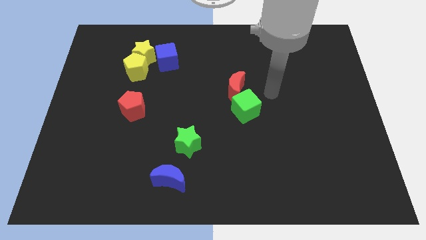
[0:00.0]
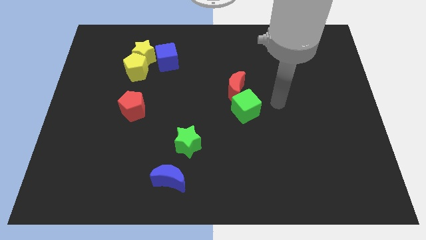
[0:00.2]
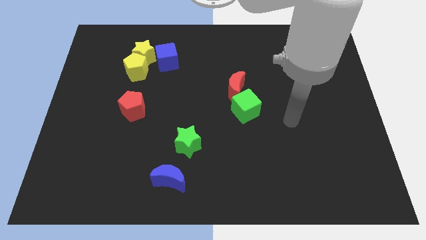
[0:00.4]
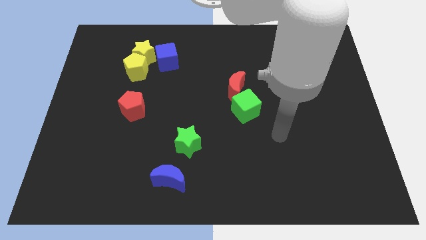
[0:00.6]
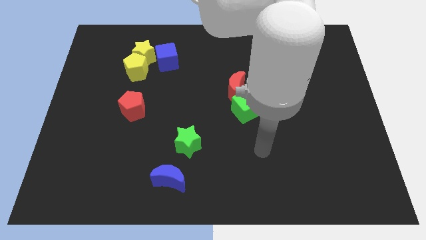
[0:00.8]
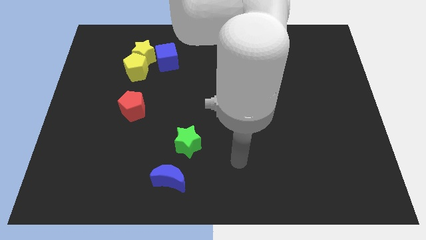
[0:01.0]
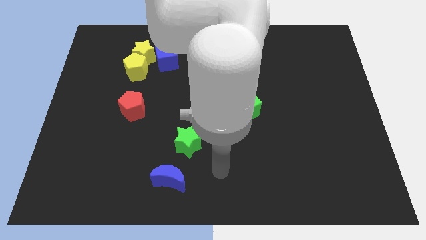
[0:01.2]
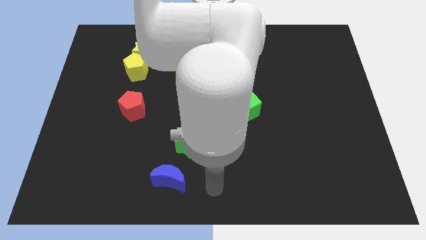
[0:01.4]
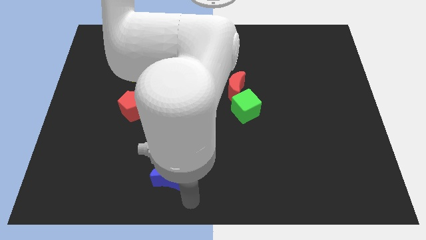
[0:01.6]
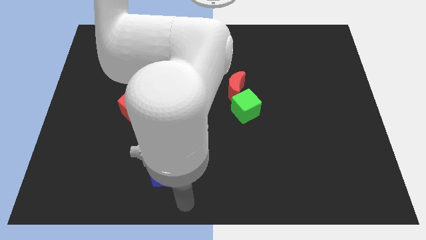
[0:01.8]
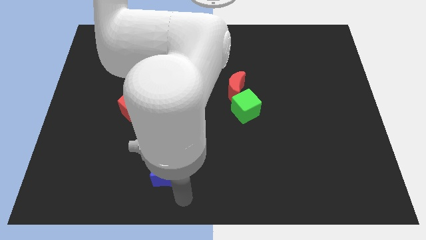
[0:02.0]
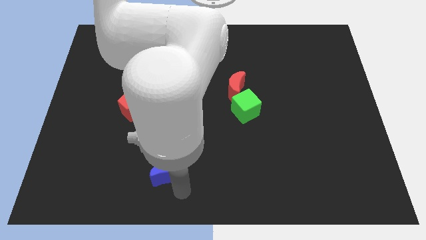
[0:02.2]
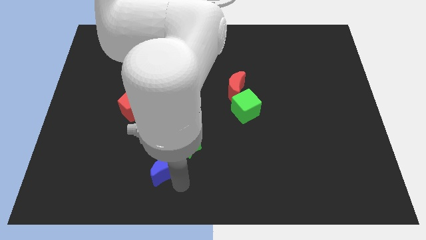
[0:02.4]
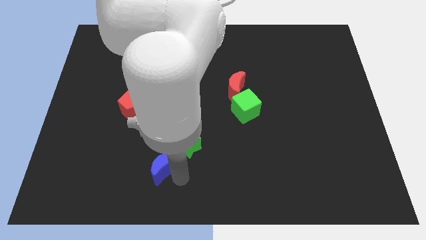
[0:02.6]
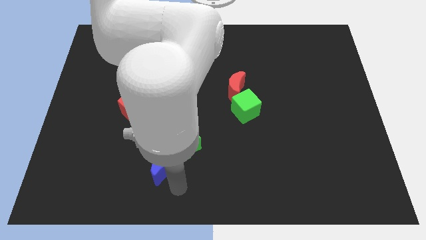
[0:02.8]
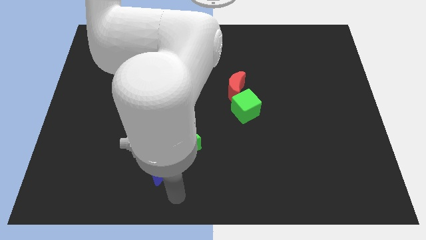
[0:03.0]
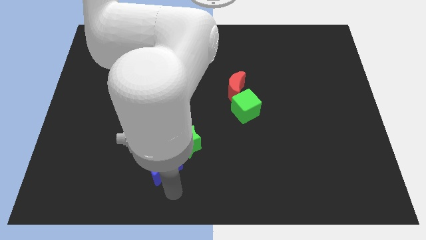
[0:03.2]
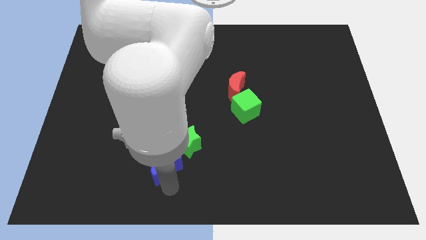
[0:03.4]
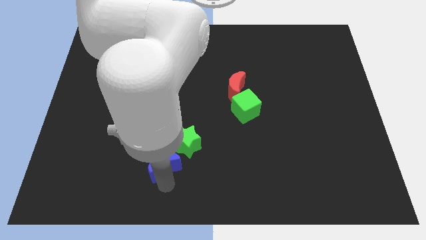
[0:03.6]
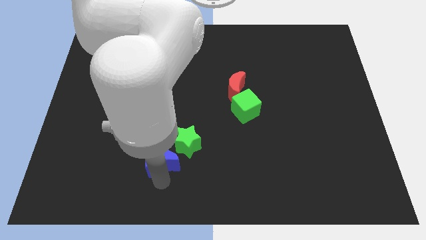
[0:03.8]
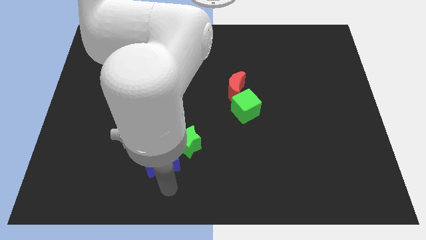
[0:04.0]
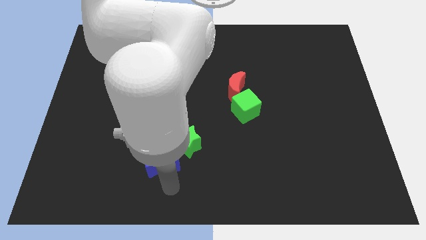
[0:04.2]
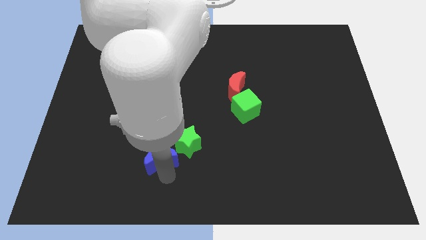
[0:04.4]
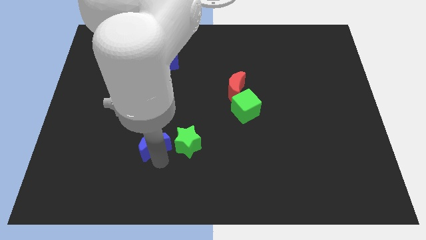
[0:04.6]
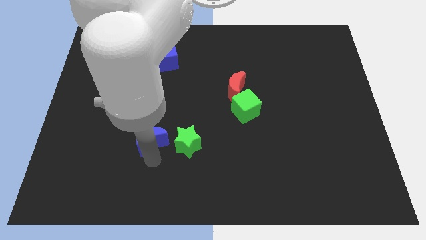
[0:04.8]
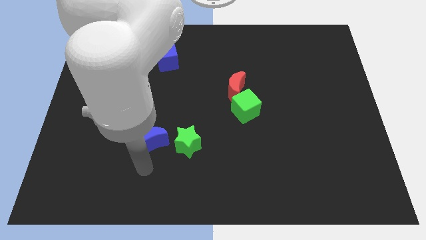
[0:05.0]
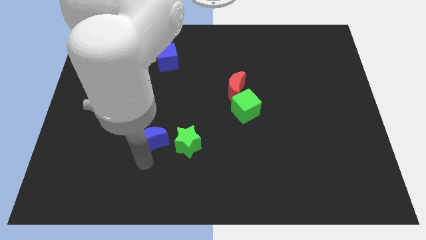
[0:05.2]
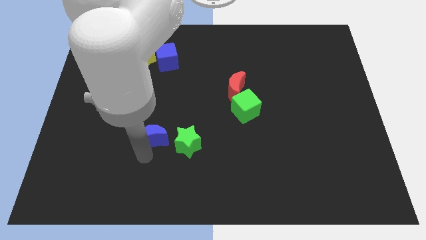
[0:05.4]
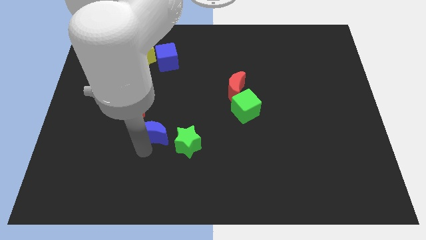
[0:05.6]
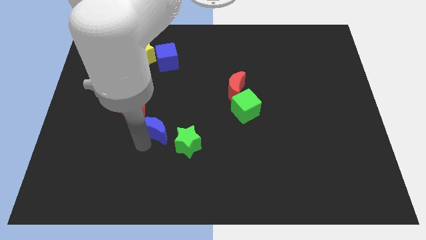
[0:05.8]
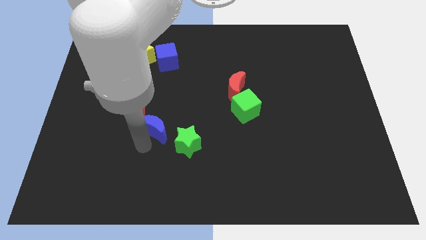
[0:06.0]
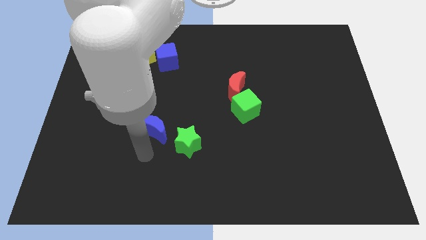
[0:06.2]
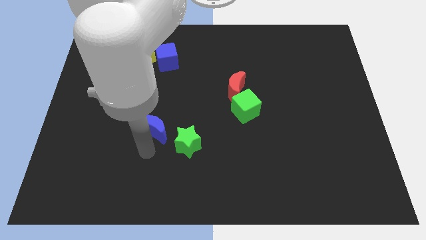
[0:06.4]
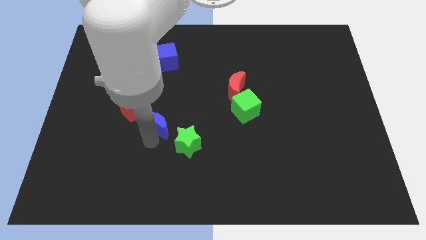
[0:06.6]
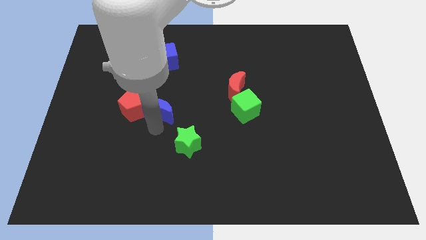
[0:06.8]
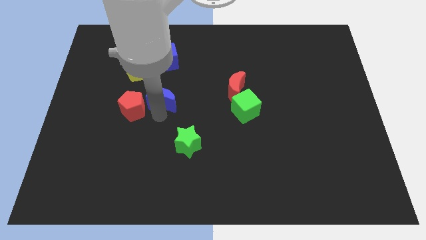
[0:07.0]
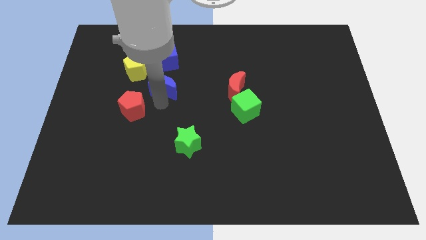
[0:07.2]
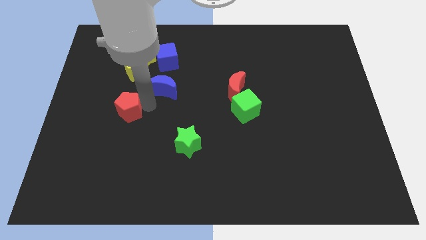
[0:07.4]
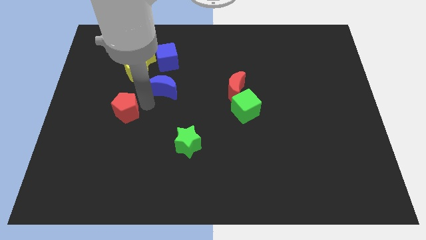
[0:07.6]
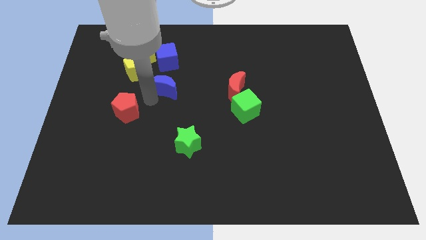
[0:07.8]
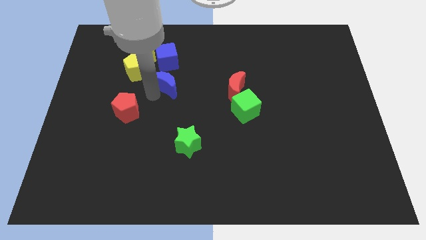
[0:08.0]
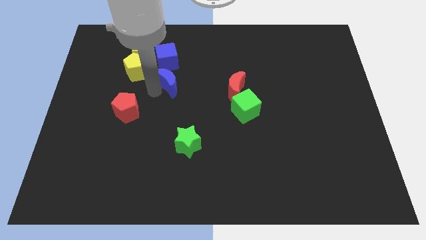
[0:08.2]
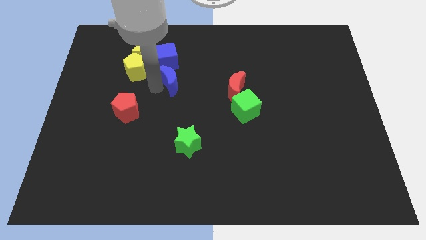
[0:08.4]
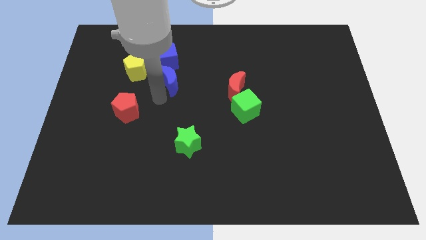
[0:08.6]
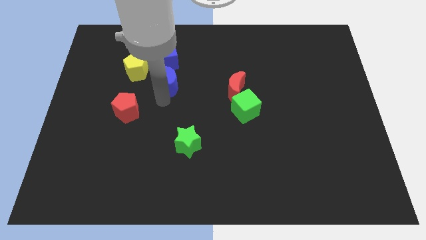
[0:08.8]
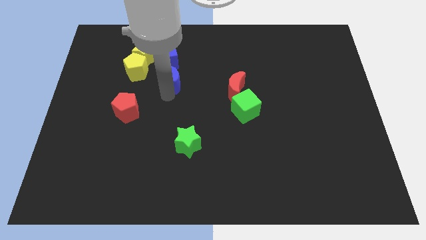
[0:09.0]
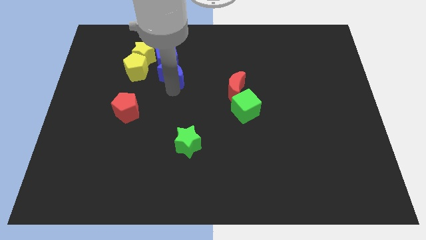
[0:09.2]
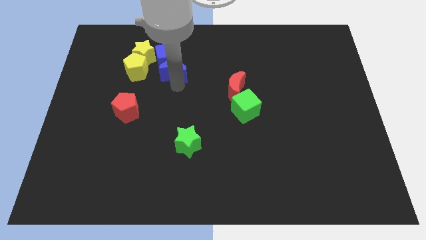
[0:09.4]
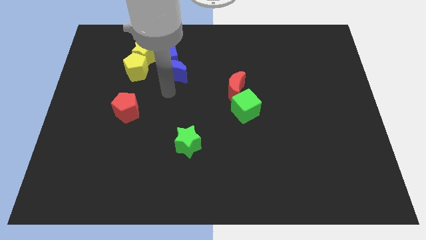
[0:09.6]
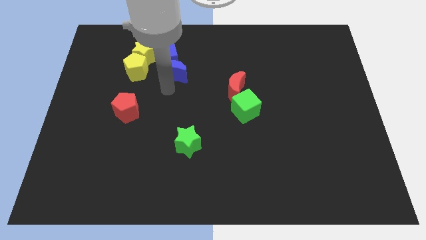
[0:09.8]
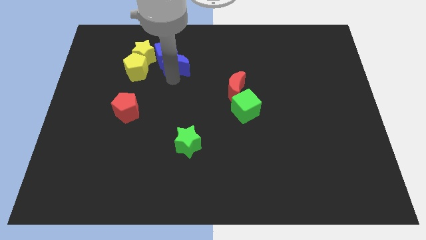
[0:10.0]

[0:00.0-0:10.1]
put the blue moon just right of the yellow star

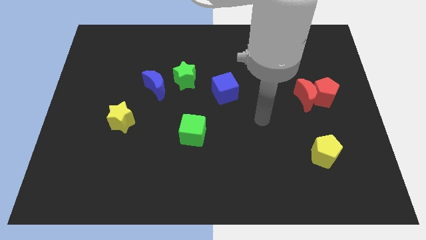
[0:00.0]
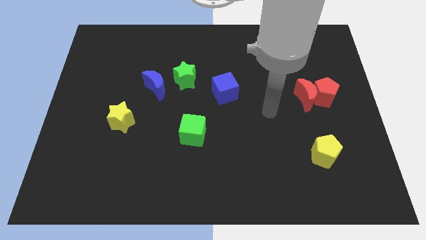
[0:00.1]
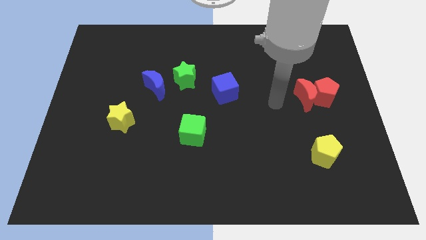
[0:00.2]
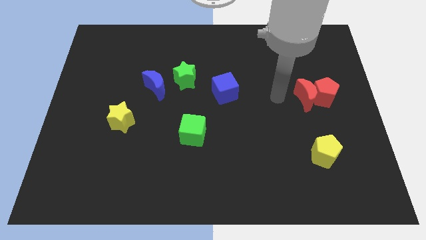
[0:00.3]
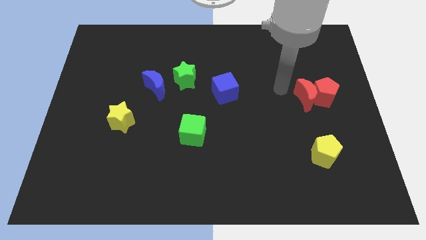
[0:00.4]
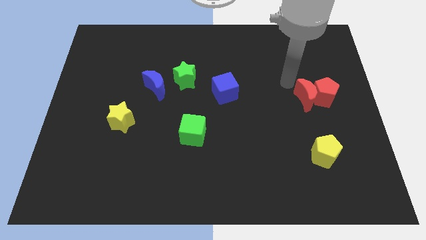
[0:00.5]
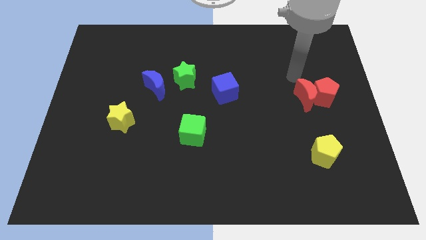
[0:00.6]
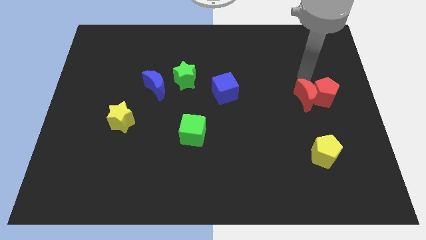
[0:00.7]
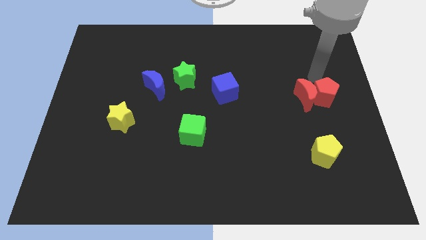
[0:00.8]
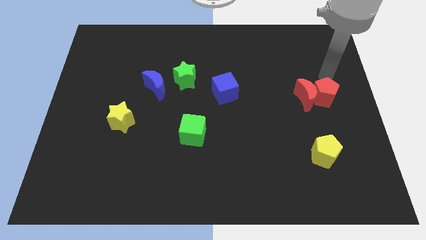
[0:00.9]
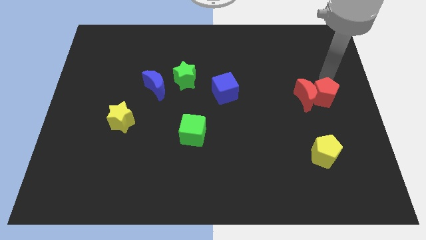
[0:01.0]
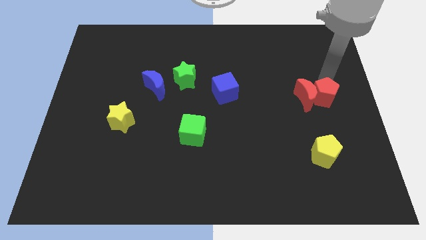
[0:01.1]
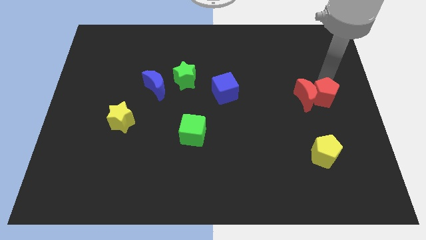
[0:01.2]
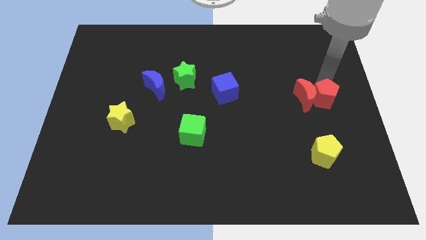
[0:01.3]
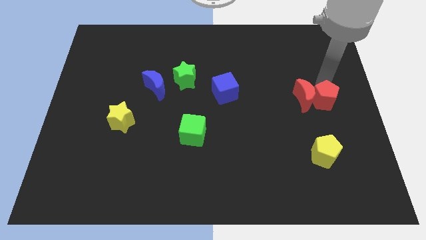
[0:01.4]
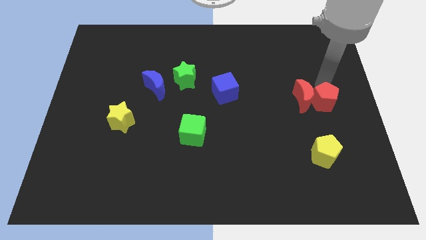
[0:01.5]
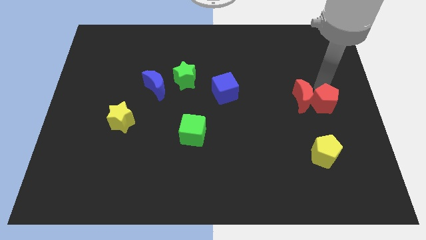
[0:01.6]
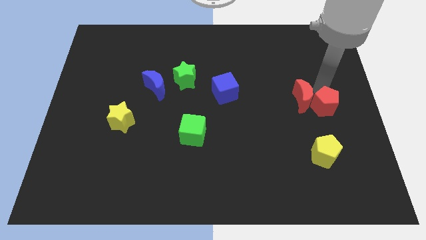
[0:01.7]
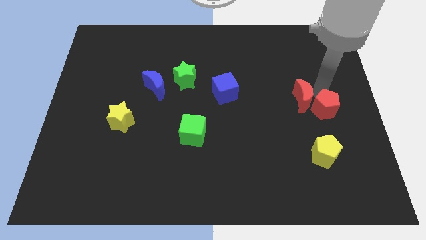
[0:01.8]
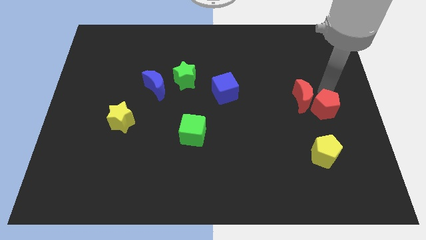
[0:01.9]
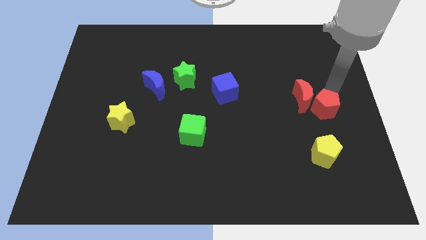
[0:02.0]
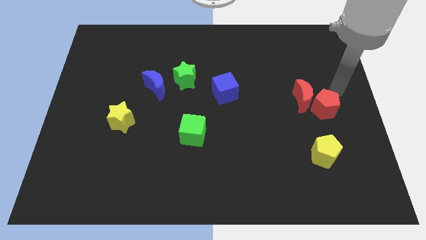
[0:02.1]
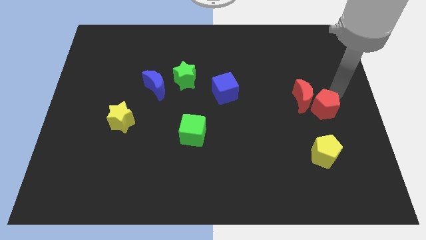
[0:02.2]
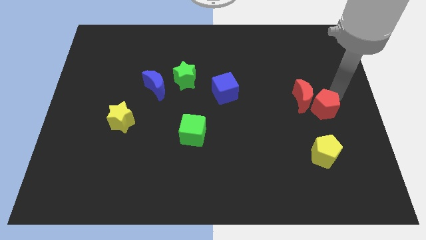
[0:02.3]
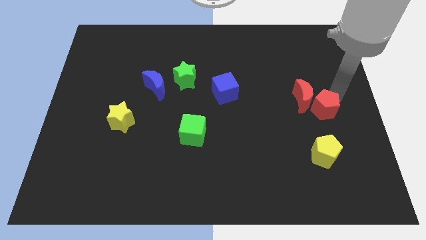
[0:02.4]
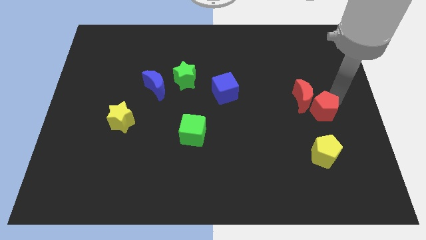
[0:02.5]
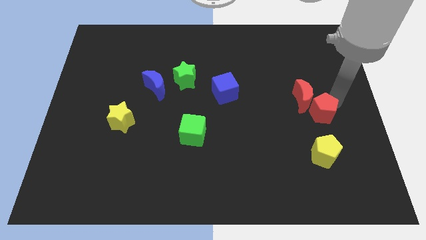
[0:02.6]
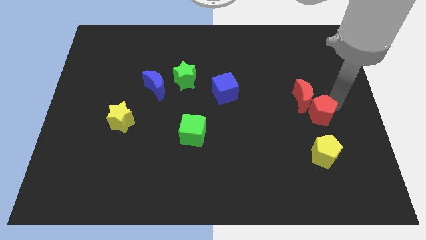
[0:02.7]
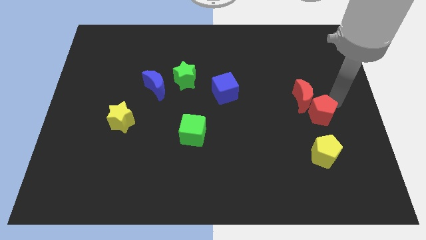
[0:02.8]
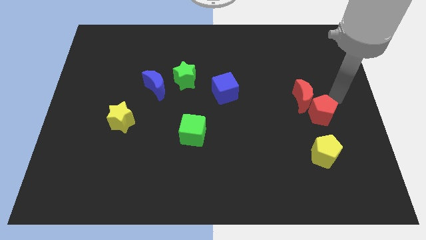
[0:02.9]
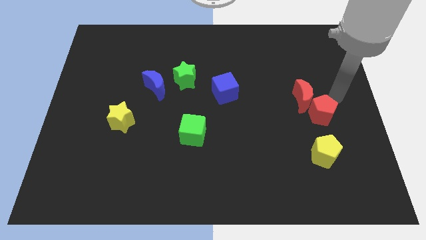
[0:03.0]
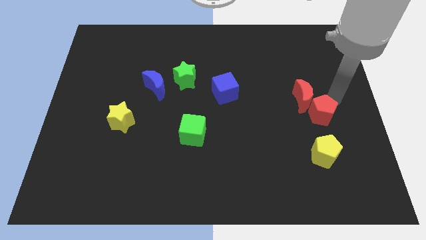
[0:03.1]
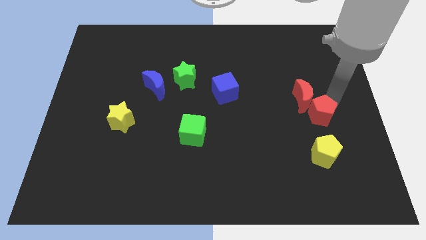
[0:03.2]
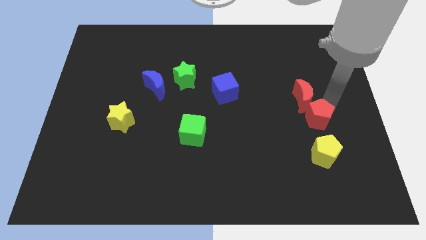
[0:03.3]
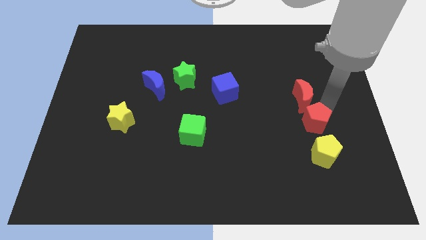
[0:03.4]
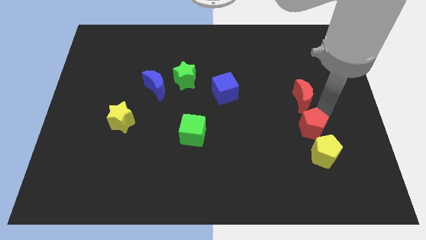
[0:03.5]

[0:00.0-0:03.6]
put the red pentagon diagonally up and to the left of the yellow pentagon
